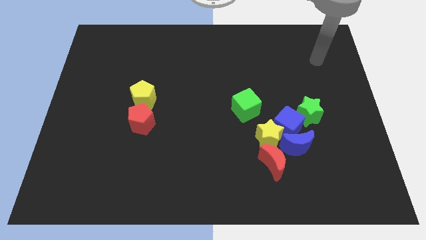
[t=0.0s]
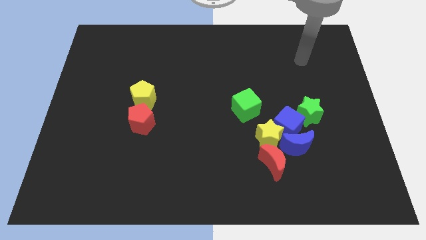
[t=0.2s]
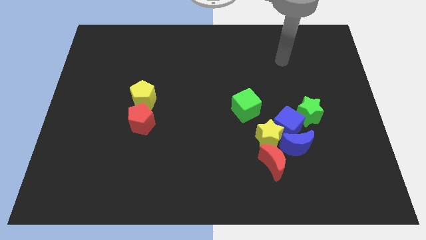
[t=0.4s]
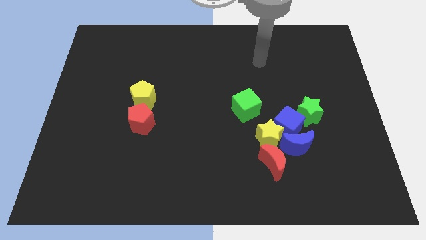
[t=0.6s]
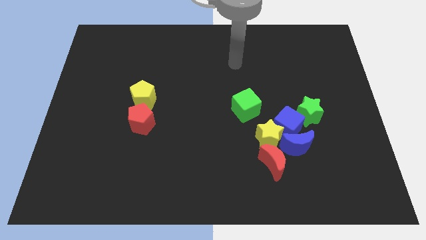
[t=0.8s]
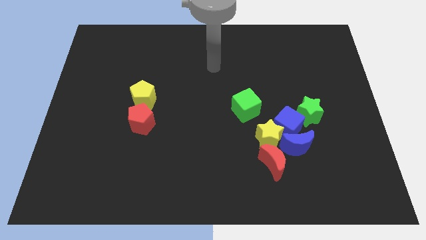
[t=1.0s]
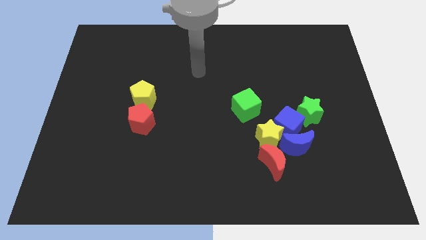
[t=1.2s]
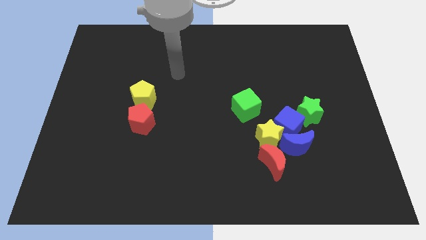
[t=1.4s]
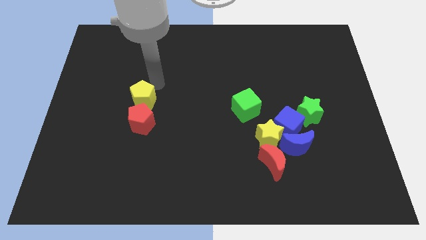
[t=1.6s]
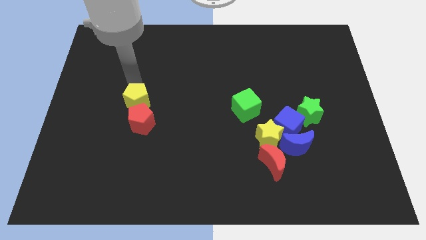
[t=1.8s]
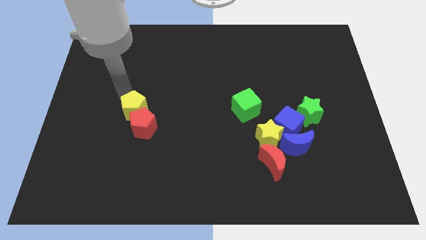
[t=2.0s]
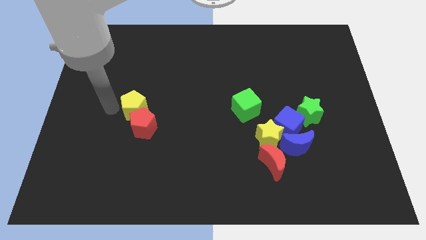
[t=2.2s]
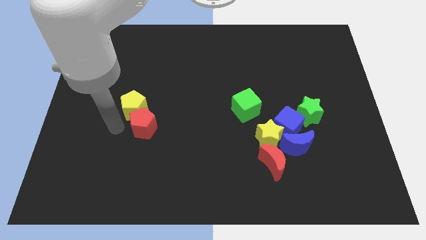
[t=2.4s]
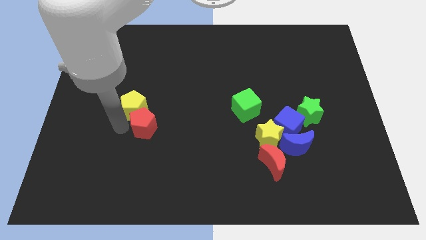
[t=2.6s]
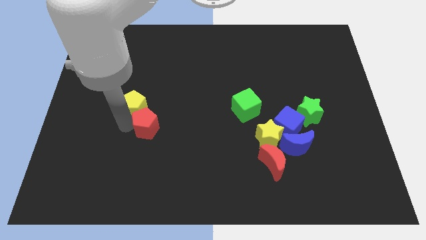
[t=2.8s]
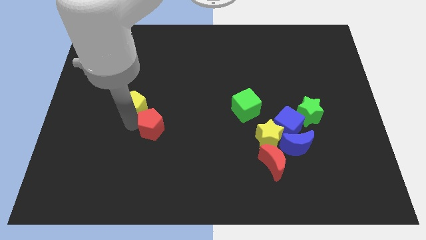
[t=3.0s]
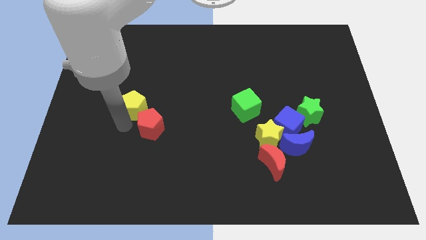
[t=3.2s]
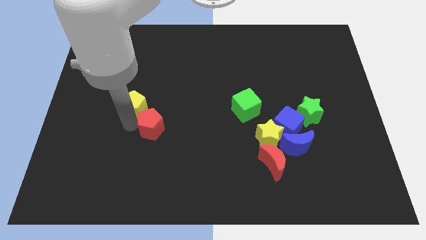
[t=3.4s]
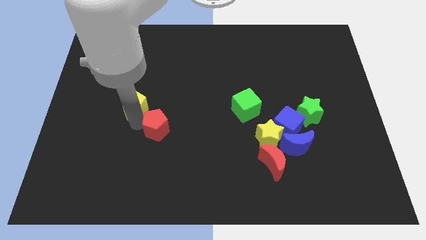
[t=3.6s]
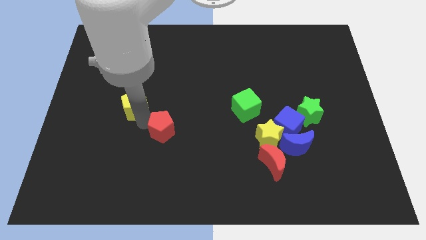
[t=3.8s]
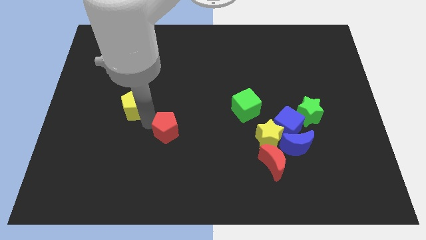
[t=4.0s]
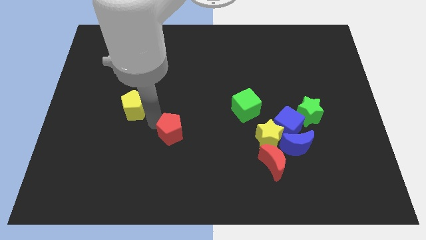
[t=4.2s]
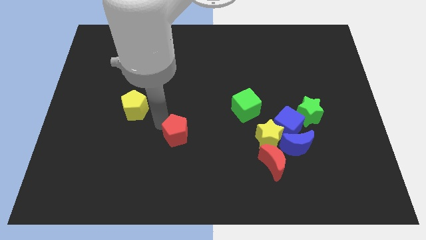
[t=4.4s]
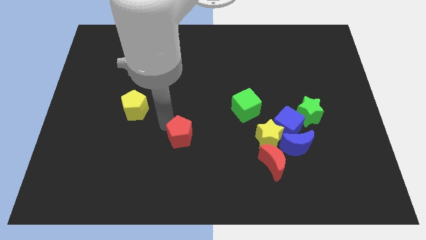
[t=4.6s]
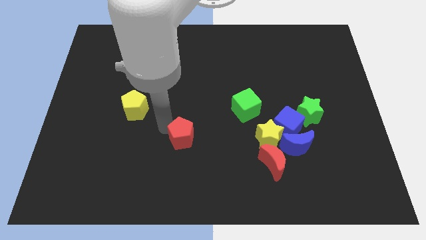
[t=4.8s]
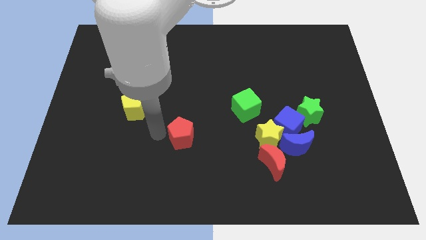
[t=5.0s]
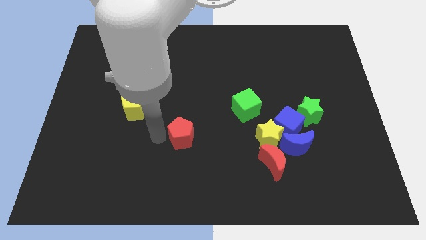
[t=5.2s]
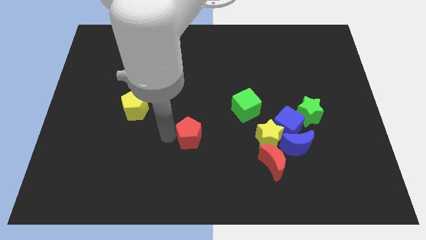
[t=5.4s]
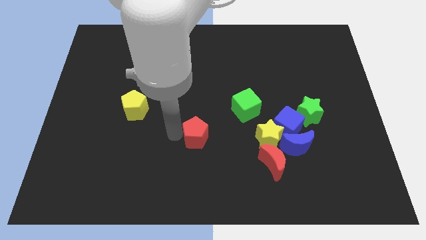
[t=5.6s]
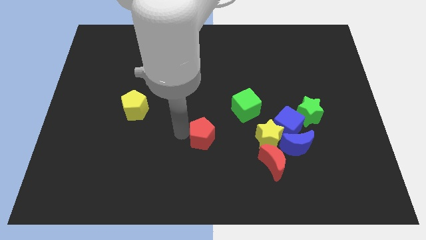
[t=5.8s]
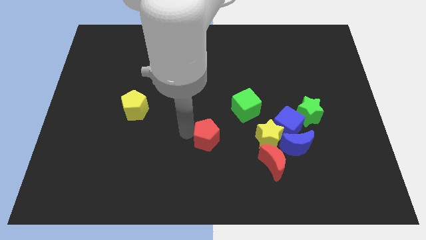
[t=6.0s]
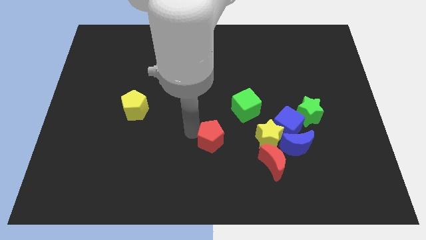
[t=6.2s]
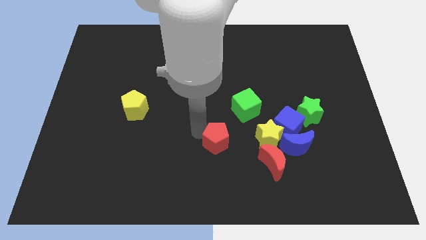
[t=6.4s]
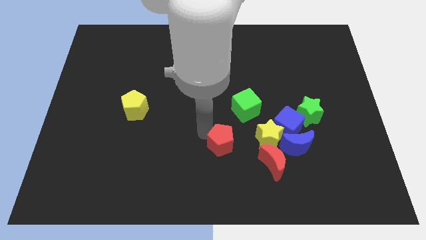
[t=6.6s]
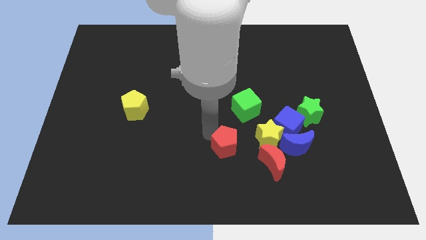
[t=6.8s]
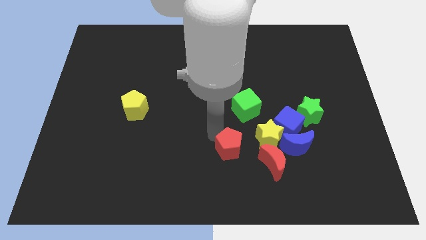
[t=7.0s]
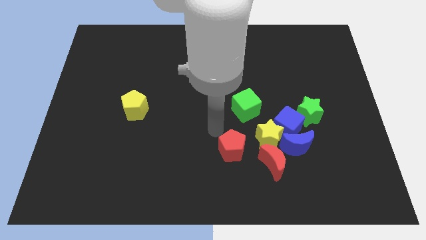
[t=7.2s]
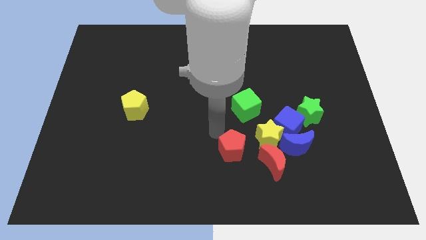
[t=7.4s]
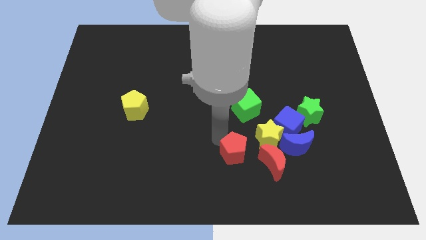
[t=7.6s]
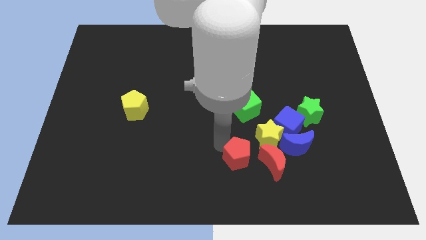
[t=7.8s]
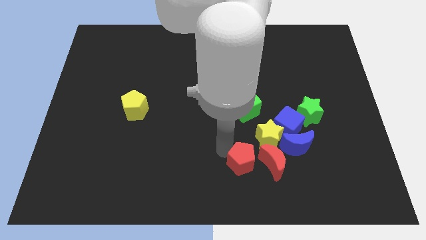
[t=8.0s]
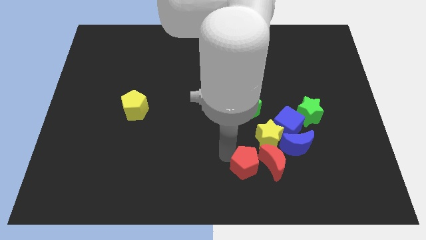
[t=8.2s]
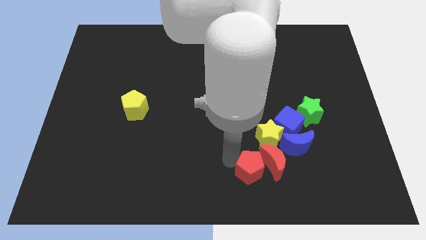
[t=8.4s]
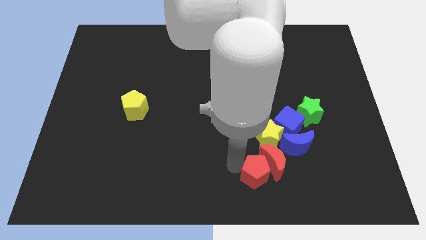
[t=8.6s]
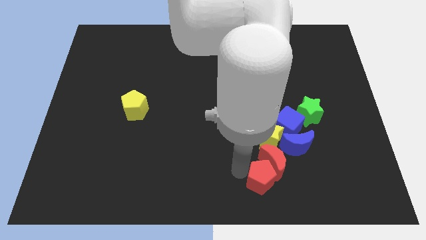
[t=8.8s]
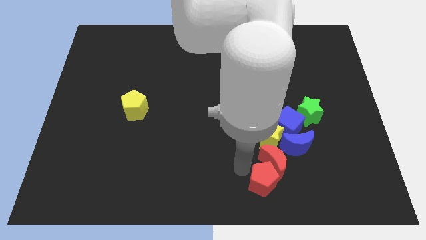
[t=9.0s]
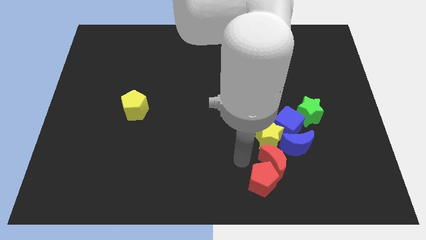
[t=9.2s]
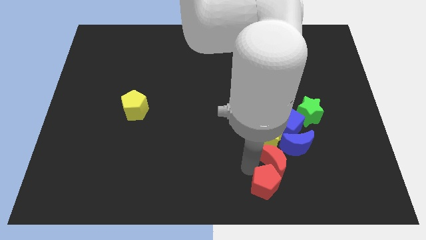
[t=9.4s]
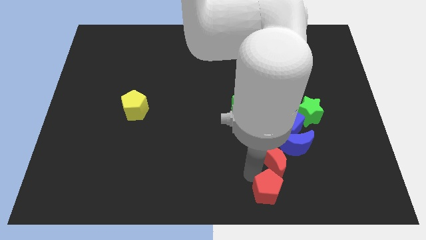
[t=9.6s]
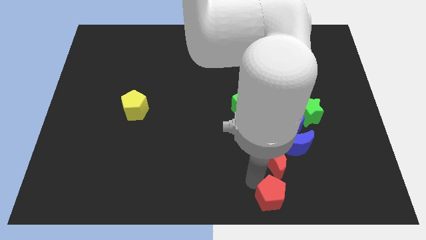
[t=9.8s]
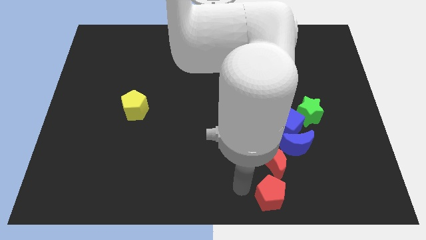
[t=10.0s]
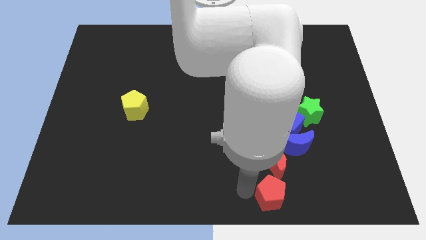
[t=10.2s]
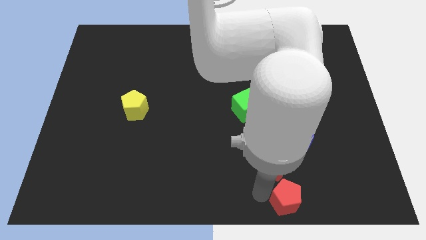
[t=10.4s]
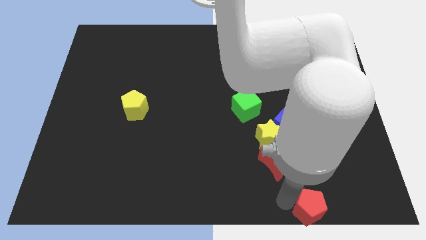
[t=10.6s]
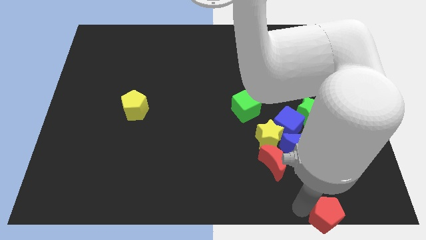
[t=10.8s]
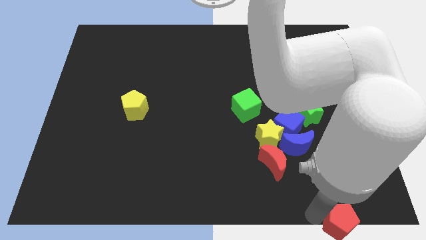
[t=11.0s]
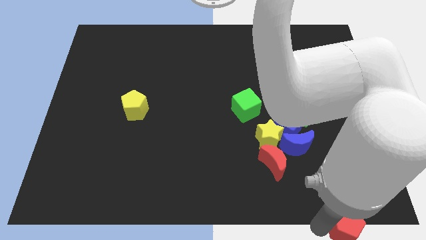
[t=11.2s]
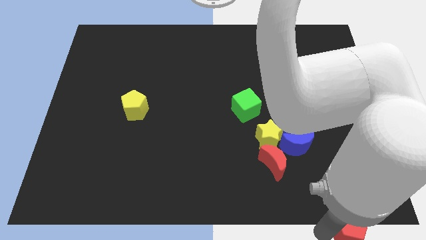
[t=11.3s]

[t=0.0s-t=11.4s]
push the red pentagon to the bottom right of the board
